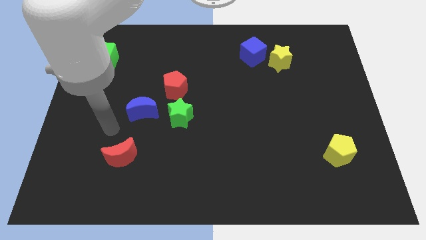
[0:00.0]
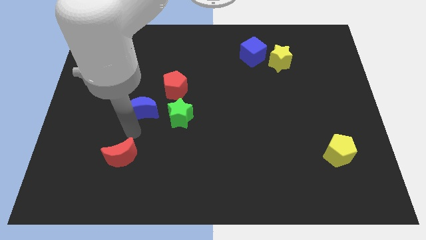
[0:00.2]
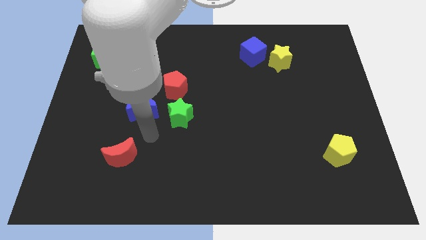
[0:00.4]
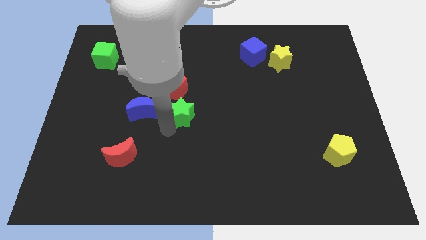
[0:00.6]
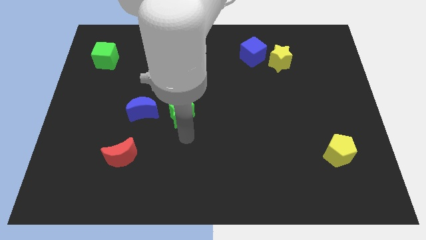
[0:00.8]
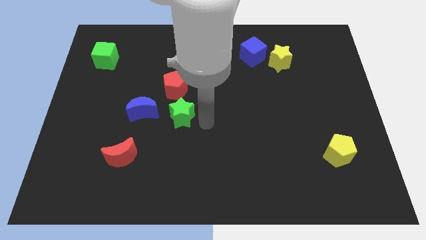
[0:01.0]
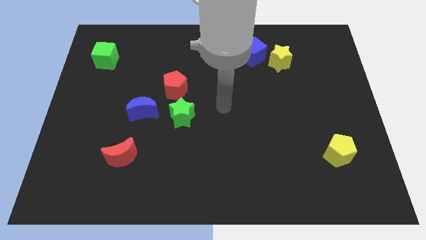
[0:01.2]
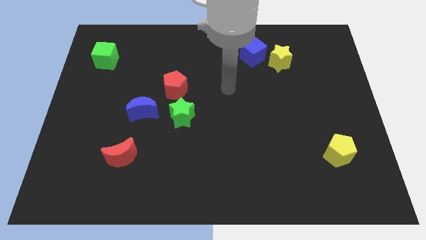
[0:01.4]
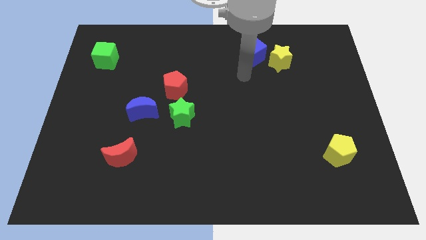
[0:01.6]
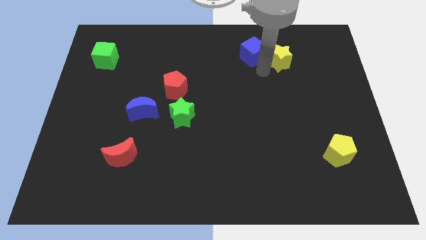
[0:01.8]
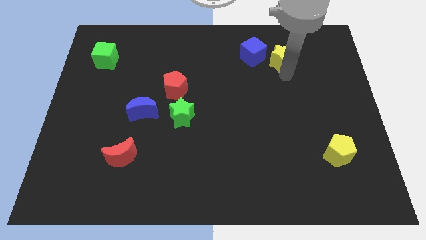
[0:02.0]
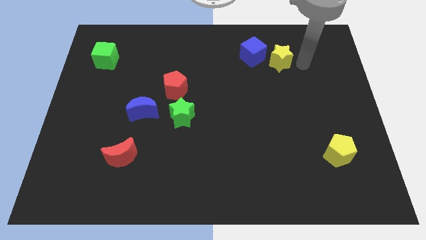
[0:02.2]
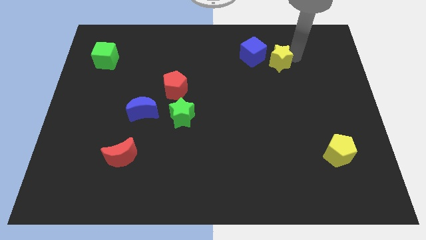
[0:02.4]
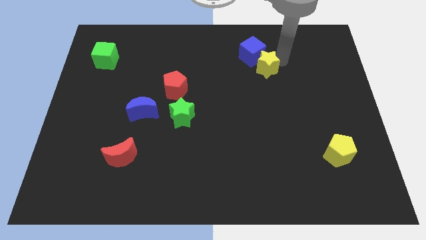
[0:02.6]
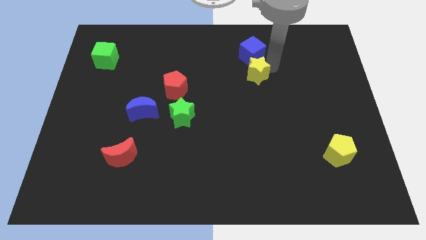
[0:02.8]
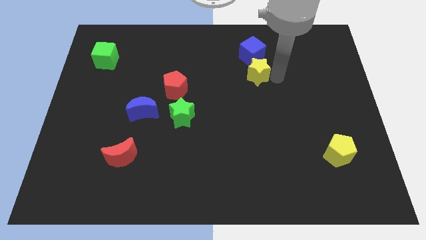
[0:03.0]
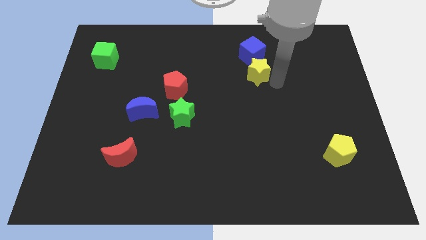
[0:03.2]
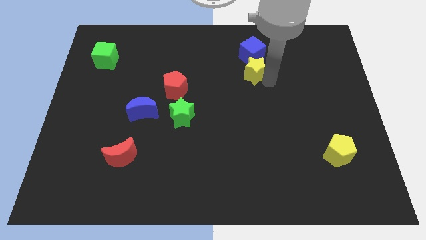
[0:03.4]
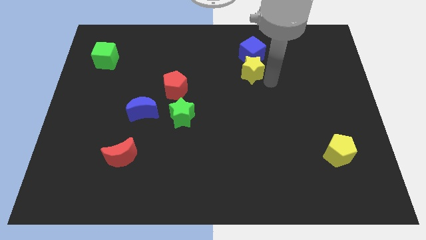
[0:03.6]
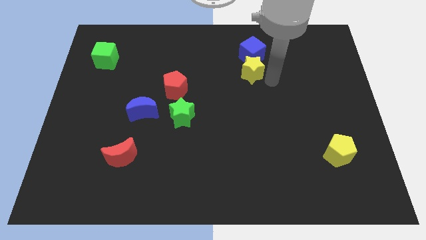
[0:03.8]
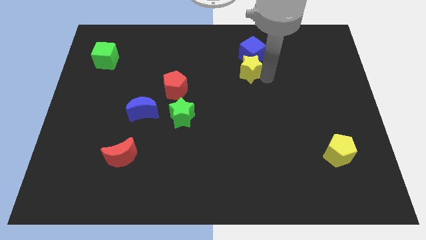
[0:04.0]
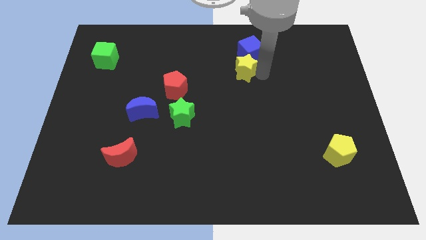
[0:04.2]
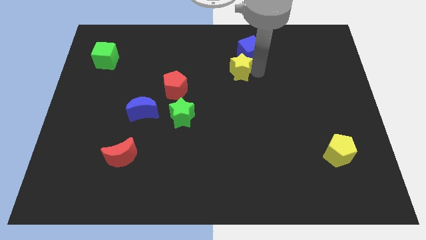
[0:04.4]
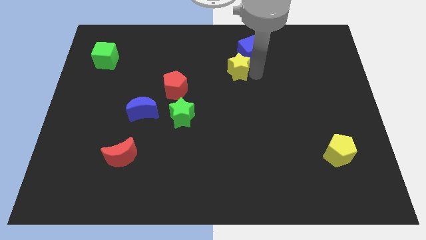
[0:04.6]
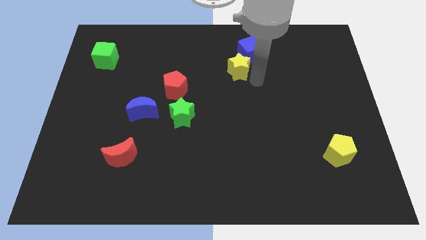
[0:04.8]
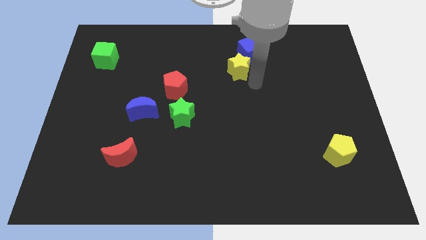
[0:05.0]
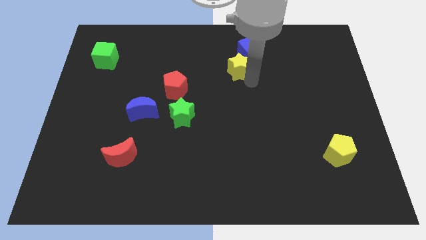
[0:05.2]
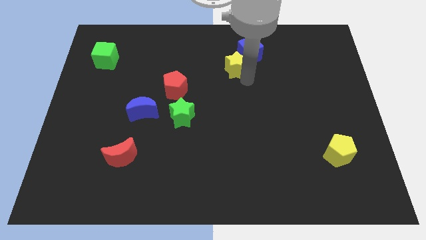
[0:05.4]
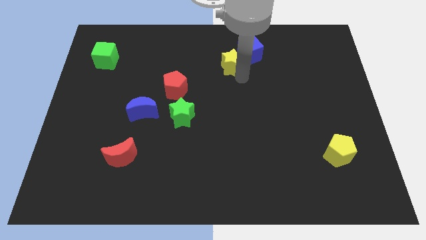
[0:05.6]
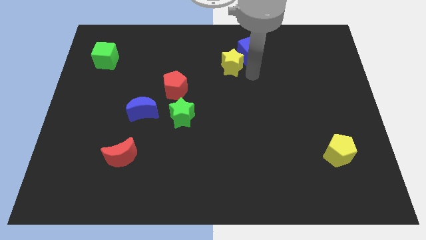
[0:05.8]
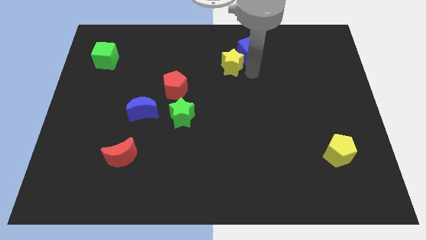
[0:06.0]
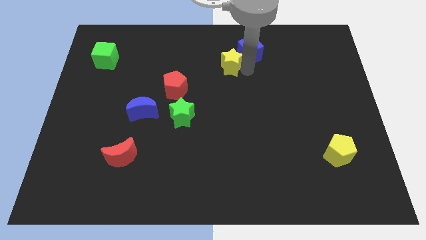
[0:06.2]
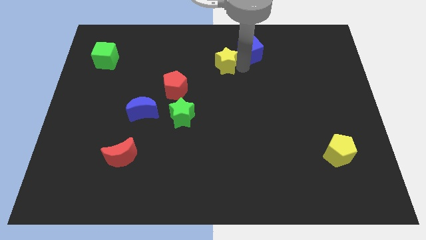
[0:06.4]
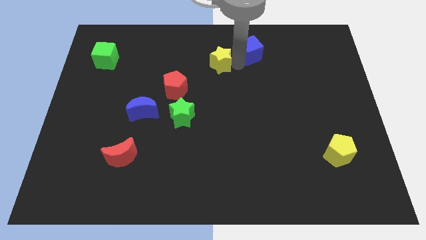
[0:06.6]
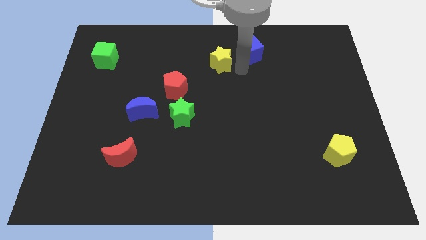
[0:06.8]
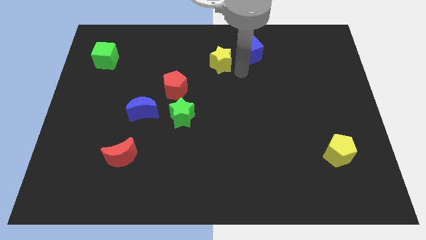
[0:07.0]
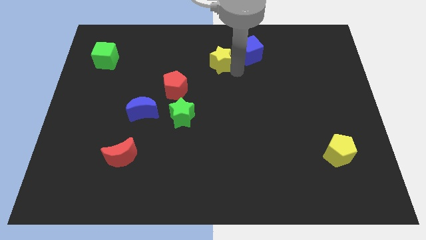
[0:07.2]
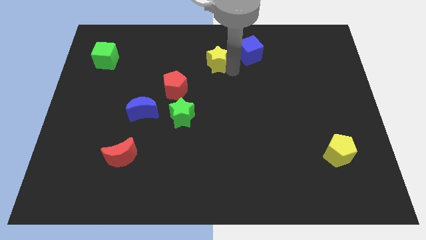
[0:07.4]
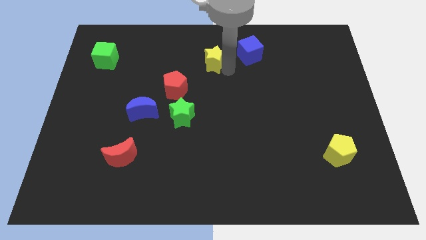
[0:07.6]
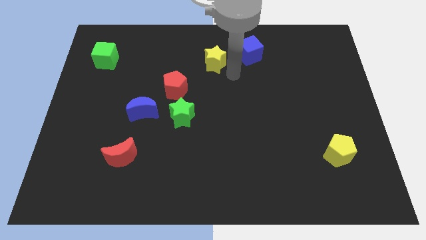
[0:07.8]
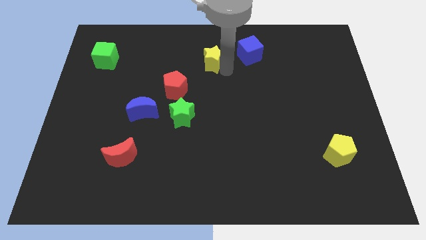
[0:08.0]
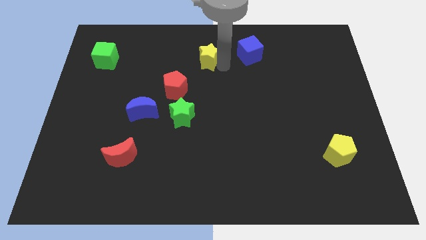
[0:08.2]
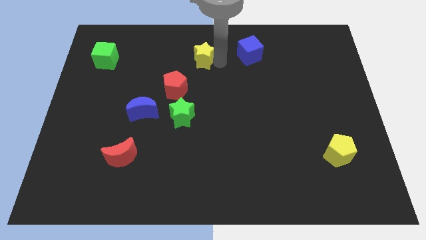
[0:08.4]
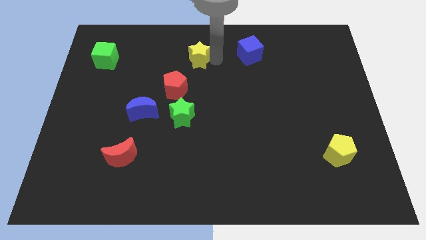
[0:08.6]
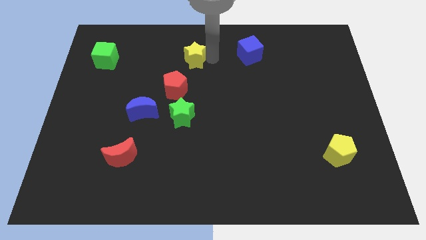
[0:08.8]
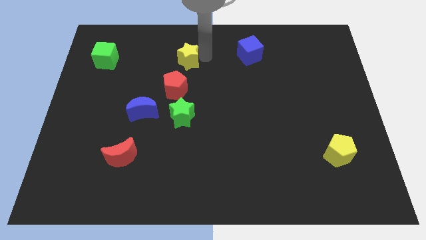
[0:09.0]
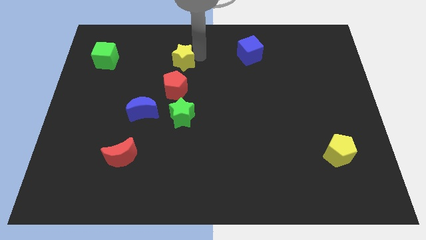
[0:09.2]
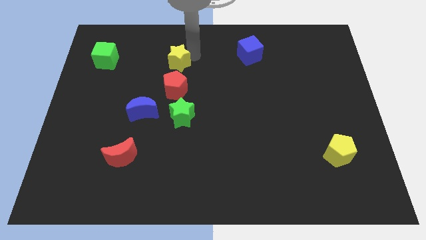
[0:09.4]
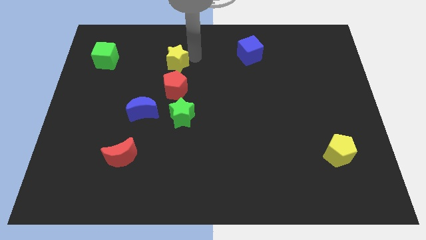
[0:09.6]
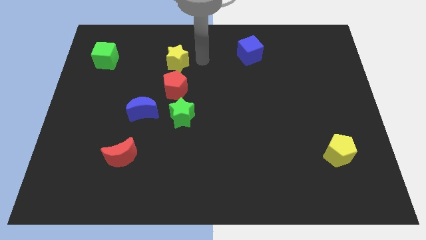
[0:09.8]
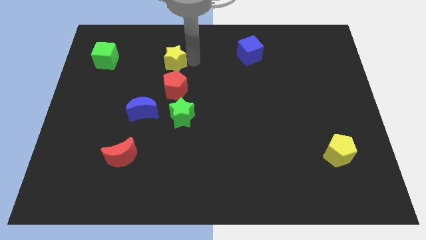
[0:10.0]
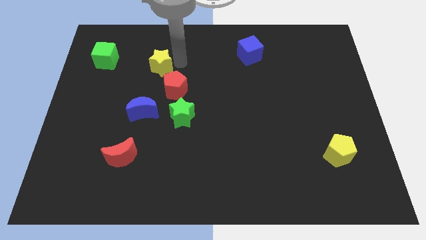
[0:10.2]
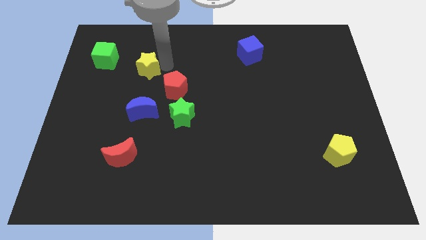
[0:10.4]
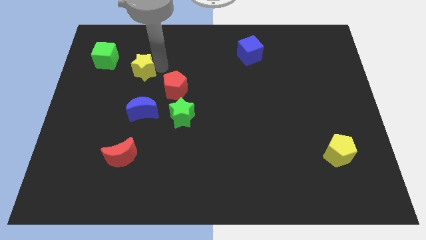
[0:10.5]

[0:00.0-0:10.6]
move the yellow star diagonally down and to the right of the green cube

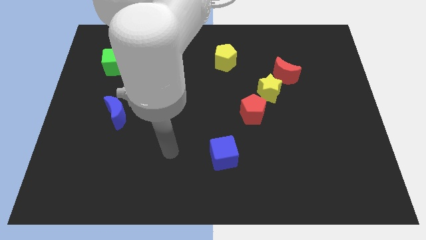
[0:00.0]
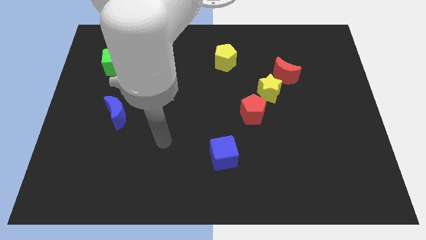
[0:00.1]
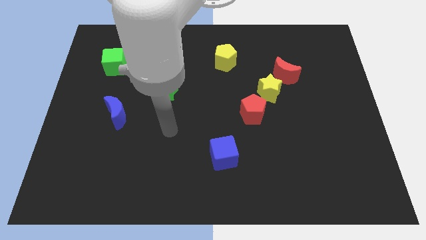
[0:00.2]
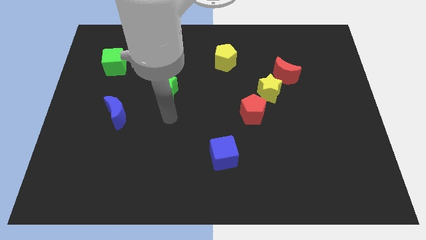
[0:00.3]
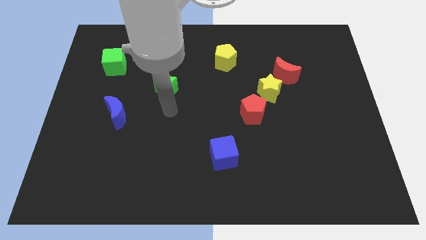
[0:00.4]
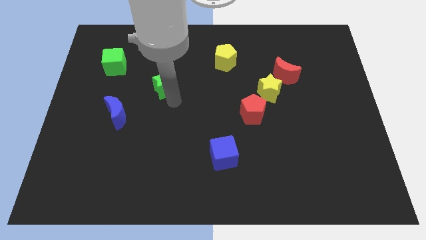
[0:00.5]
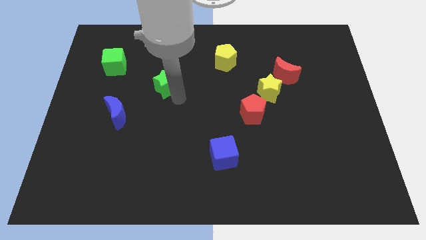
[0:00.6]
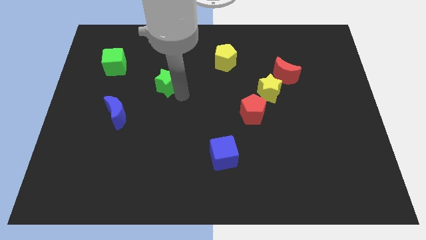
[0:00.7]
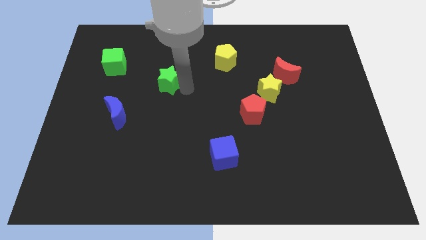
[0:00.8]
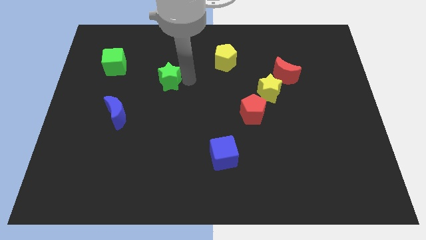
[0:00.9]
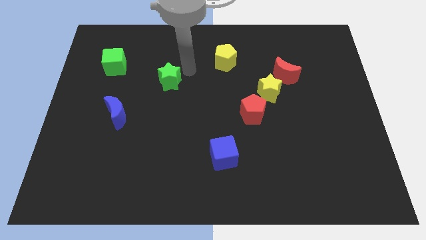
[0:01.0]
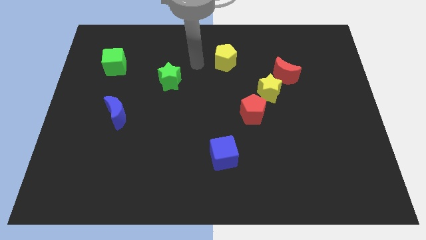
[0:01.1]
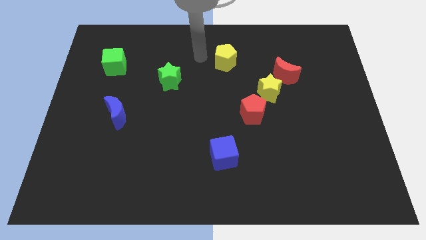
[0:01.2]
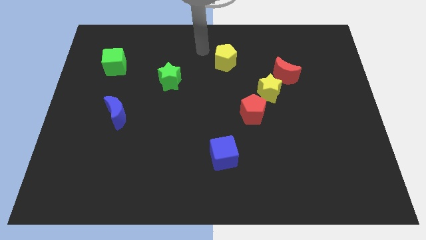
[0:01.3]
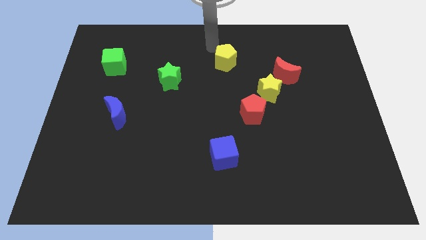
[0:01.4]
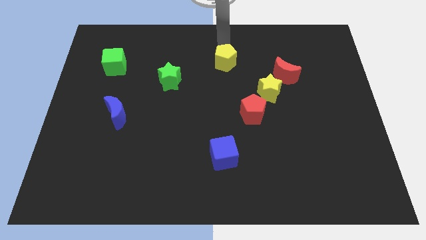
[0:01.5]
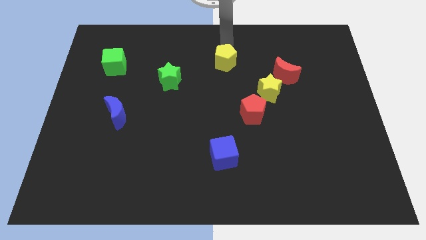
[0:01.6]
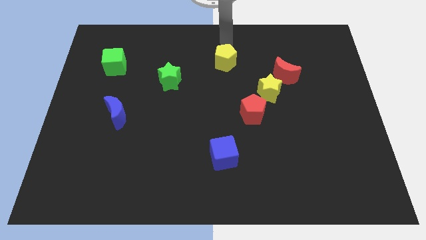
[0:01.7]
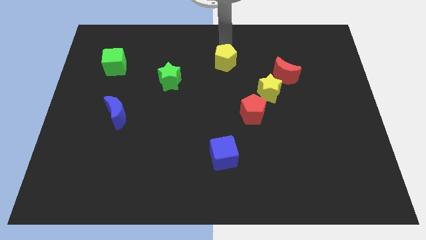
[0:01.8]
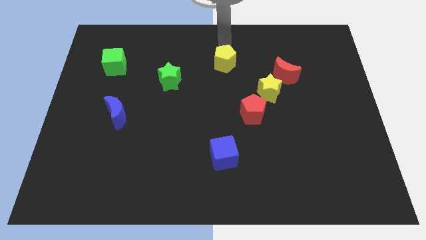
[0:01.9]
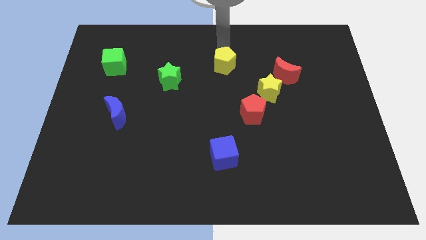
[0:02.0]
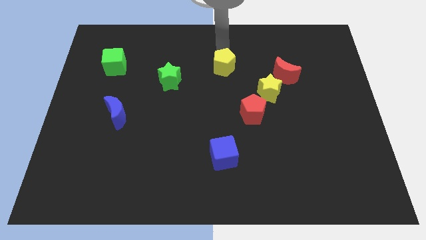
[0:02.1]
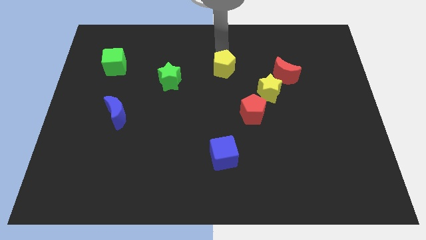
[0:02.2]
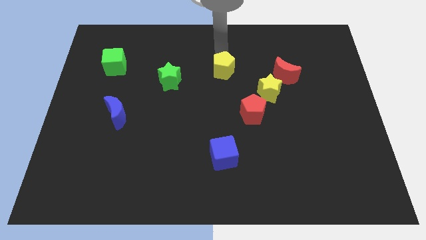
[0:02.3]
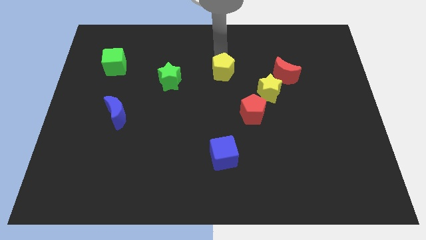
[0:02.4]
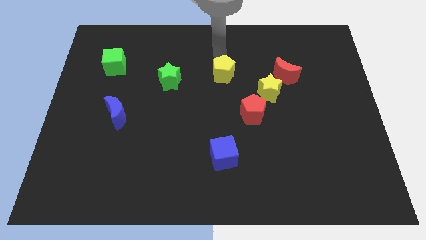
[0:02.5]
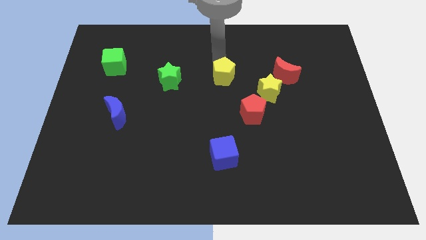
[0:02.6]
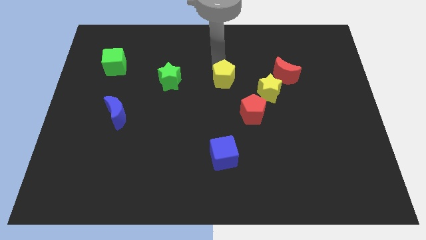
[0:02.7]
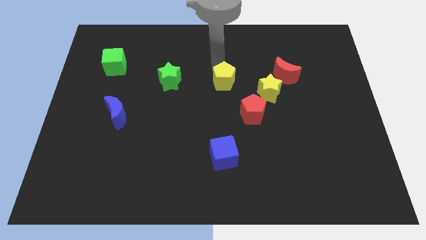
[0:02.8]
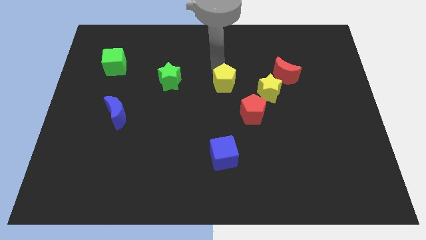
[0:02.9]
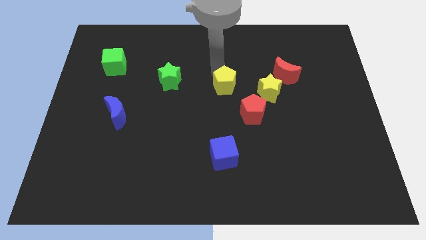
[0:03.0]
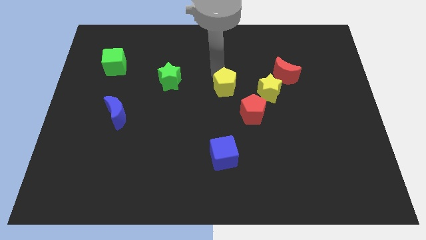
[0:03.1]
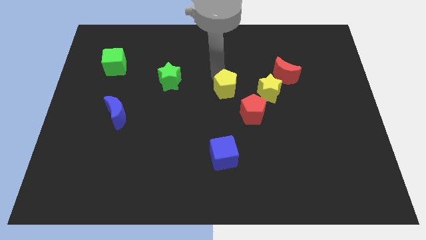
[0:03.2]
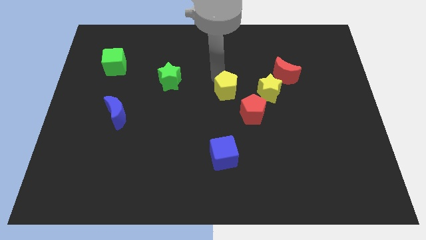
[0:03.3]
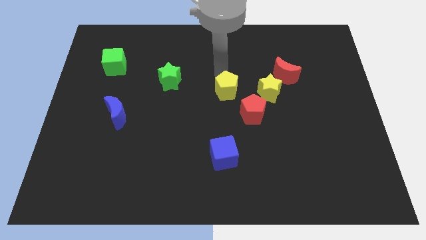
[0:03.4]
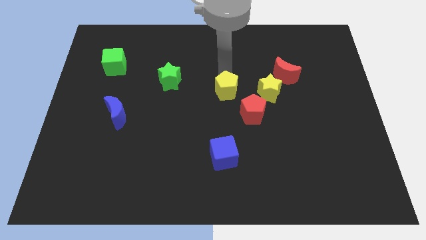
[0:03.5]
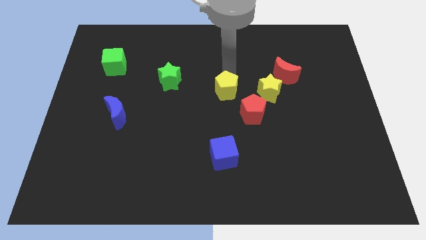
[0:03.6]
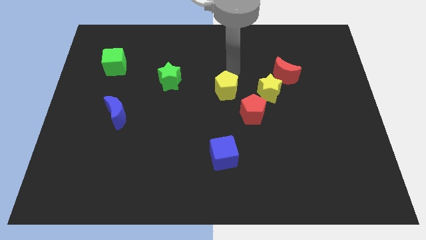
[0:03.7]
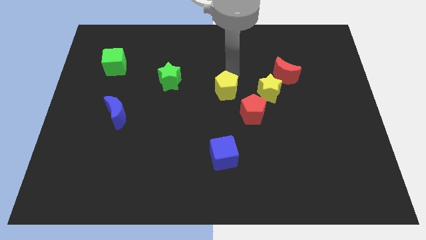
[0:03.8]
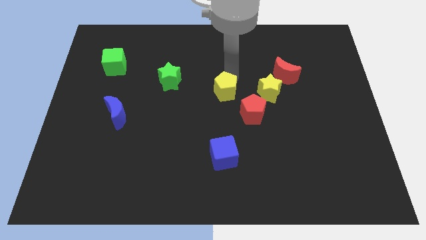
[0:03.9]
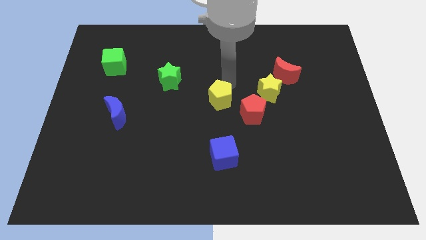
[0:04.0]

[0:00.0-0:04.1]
move the yellow pentagon above the blue cube
